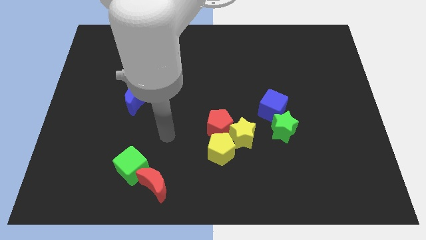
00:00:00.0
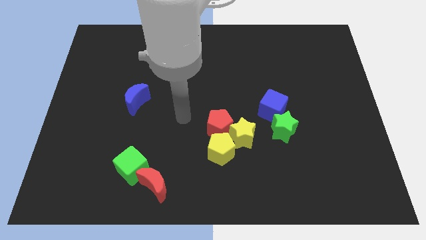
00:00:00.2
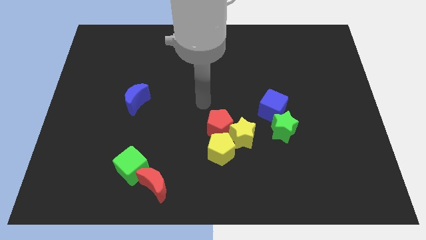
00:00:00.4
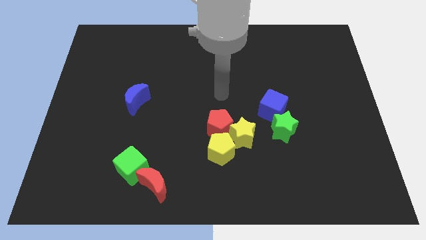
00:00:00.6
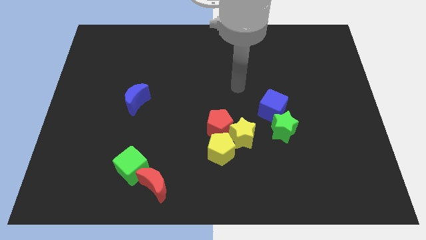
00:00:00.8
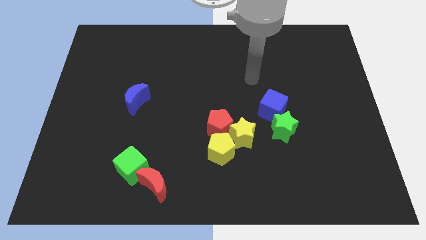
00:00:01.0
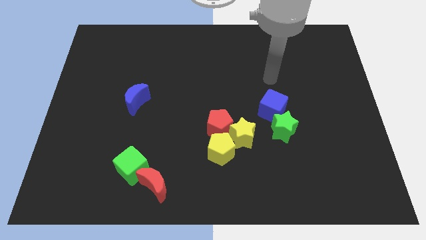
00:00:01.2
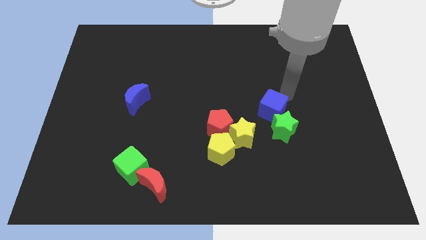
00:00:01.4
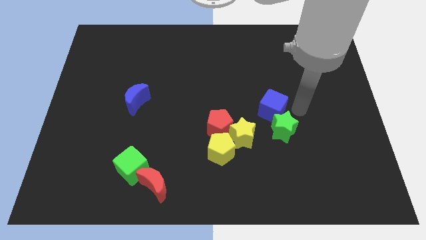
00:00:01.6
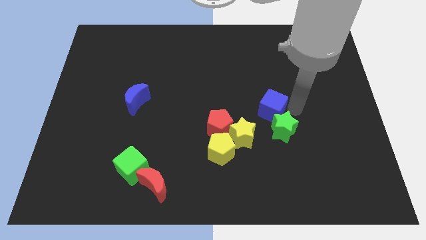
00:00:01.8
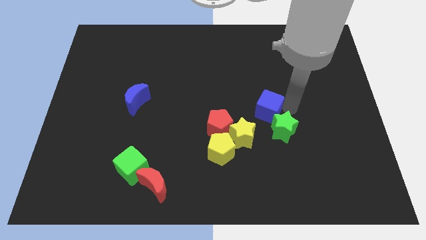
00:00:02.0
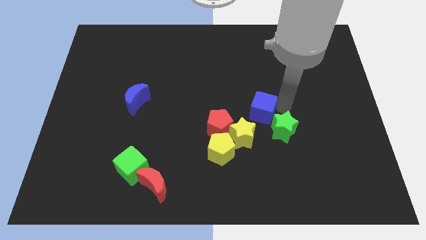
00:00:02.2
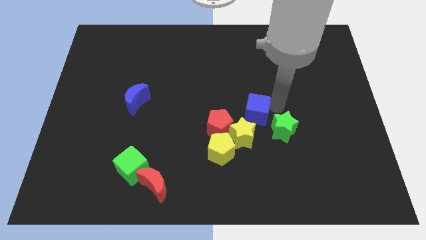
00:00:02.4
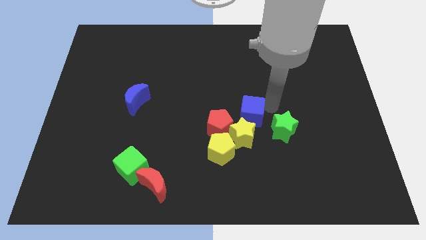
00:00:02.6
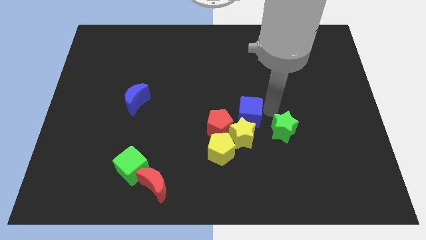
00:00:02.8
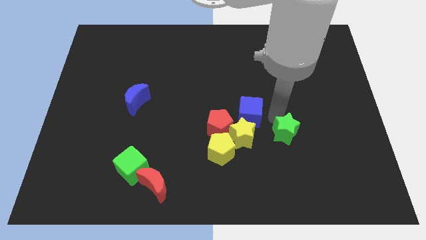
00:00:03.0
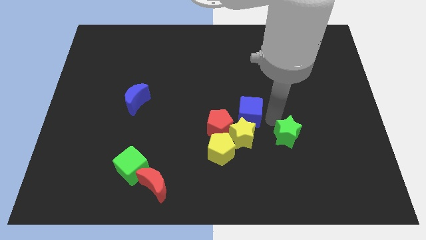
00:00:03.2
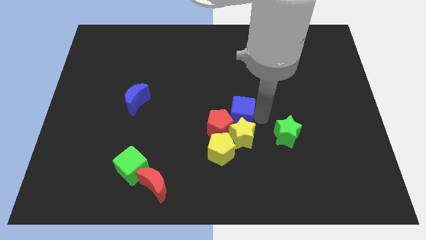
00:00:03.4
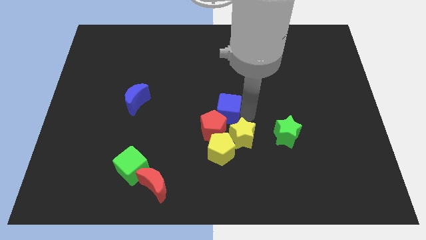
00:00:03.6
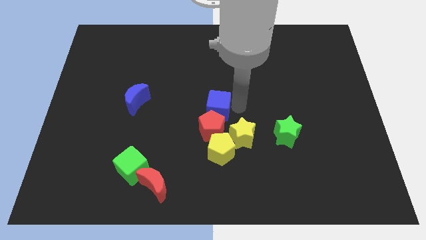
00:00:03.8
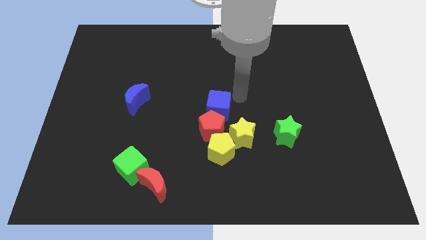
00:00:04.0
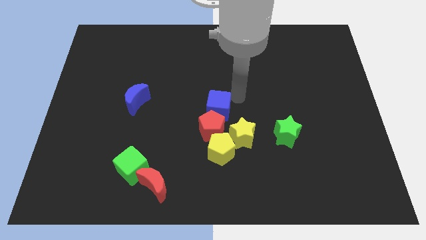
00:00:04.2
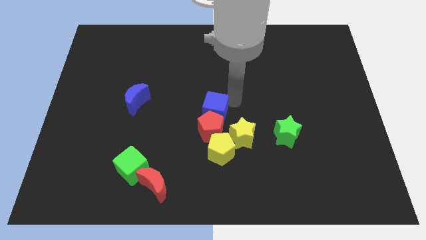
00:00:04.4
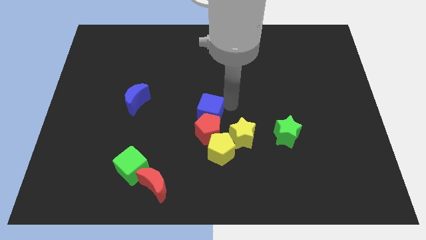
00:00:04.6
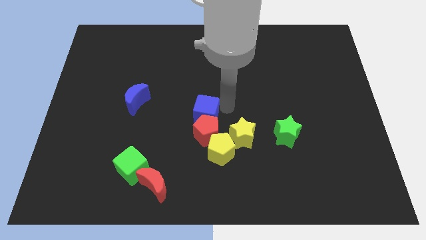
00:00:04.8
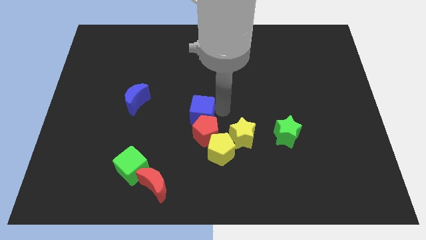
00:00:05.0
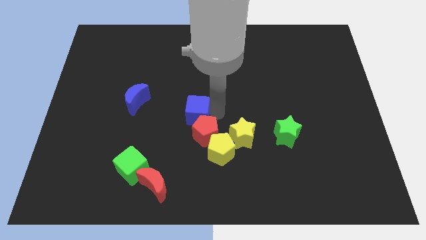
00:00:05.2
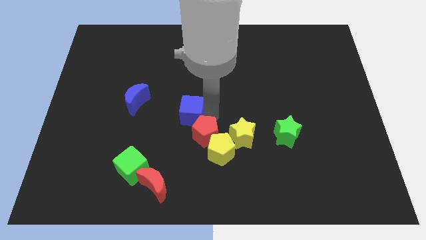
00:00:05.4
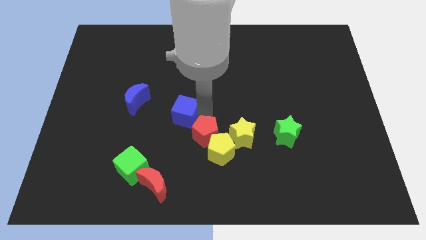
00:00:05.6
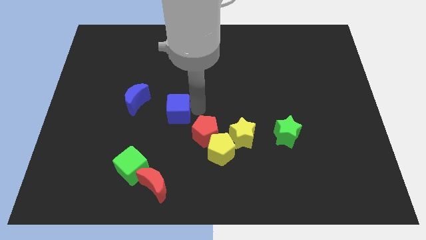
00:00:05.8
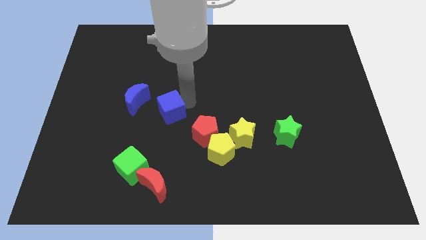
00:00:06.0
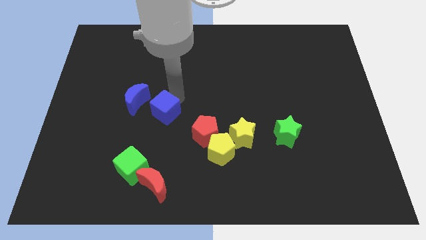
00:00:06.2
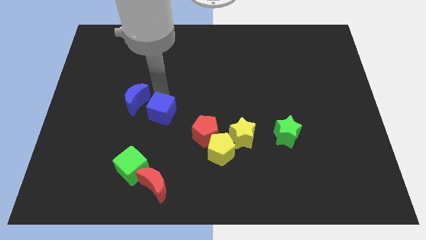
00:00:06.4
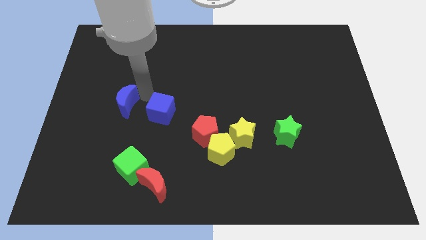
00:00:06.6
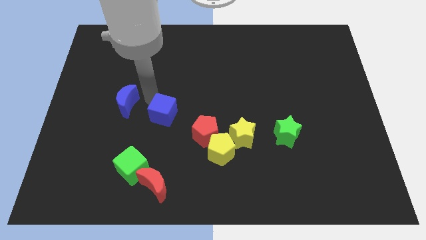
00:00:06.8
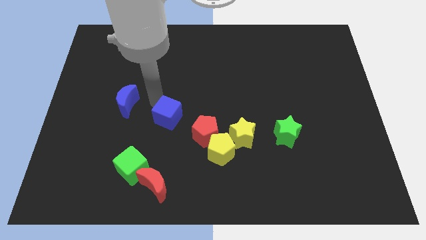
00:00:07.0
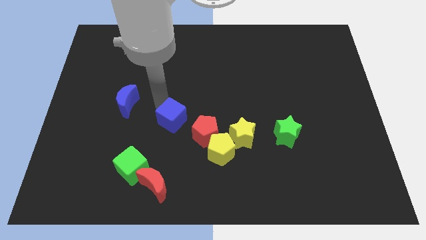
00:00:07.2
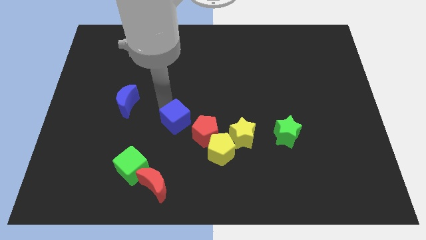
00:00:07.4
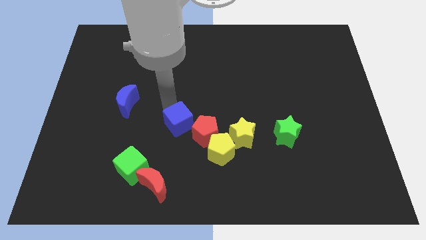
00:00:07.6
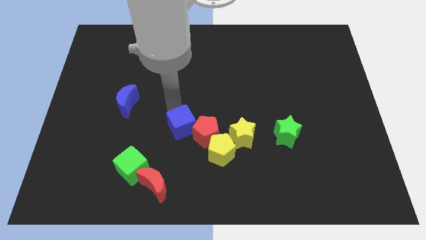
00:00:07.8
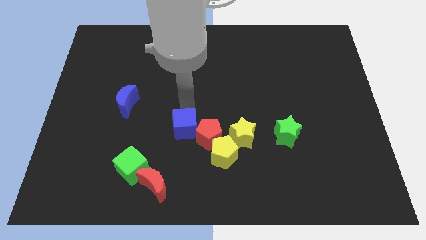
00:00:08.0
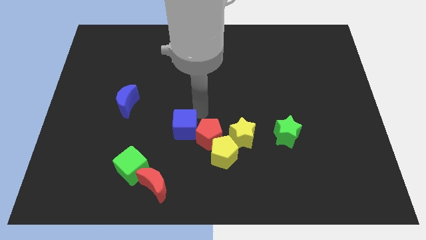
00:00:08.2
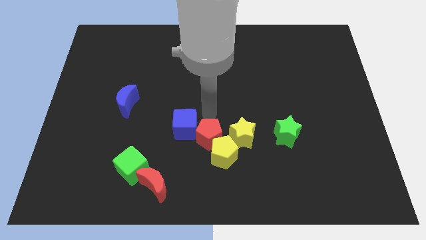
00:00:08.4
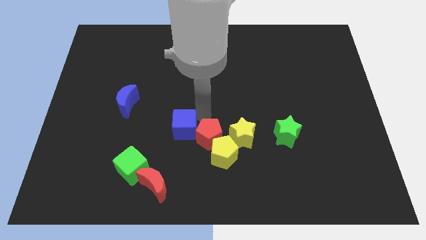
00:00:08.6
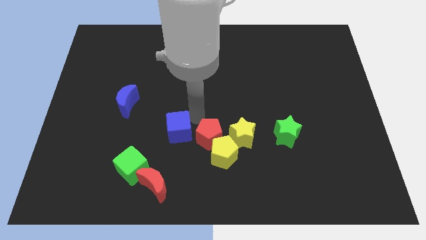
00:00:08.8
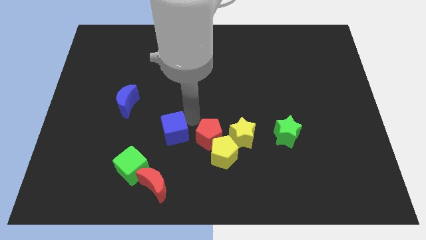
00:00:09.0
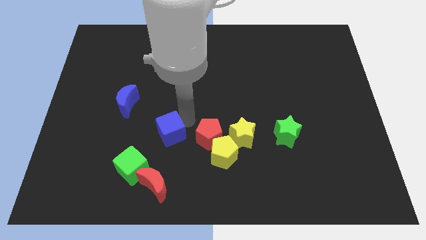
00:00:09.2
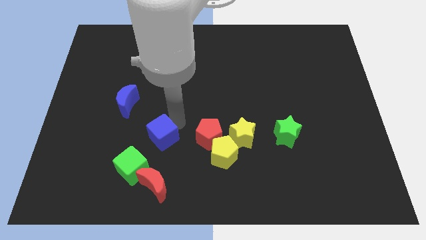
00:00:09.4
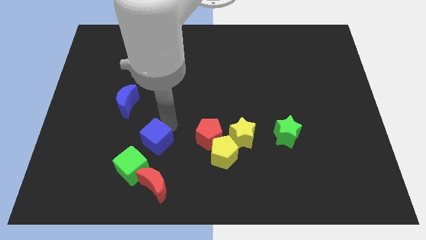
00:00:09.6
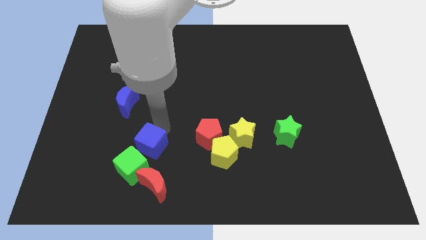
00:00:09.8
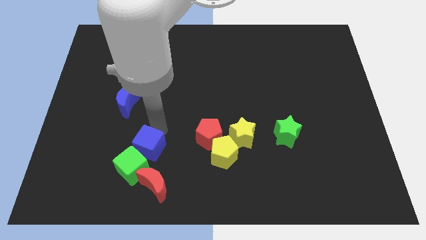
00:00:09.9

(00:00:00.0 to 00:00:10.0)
slide the blue cube close to the green cube

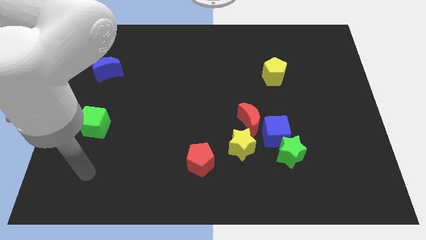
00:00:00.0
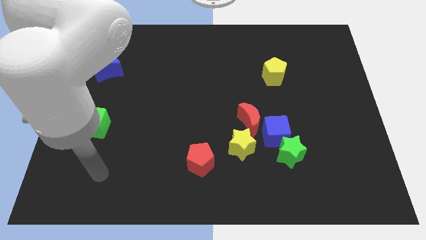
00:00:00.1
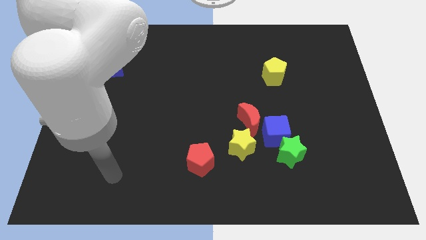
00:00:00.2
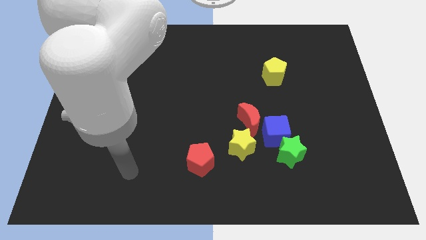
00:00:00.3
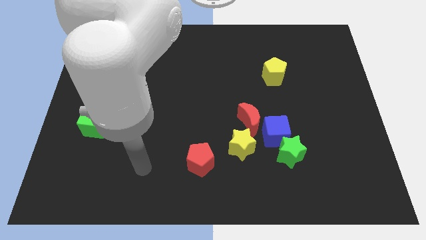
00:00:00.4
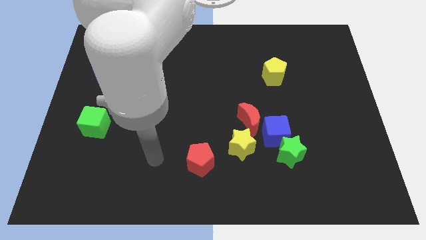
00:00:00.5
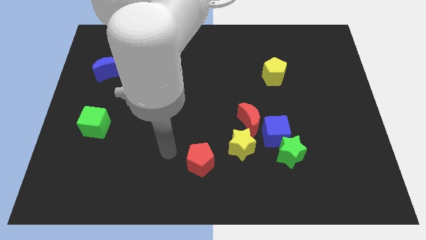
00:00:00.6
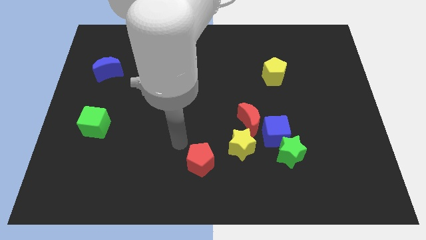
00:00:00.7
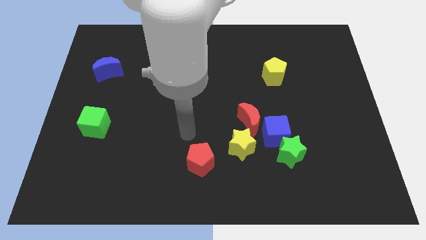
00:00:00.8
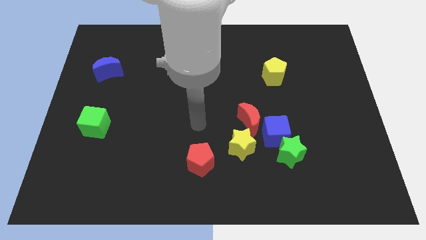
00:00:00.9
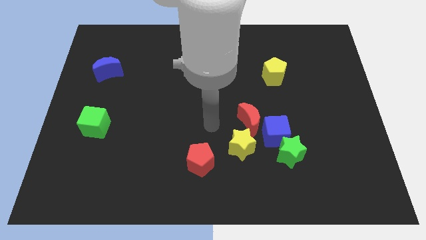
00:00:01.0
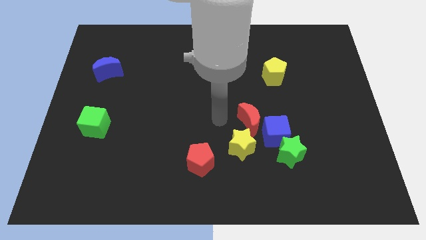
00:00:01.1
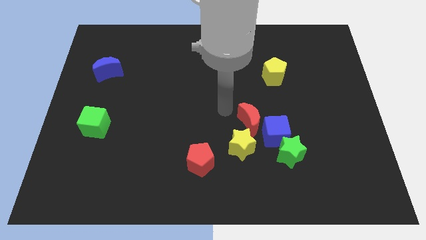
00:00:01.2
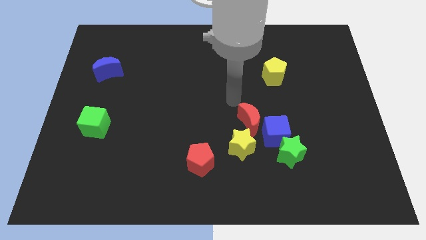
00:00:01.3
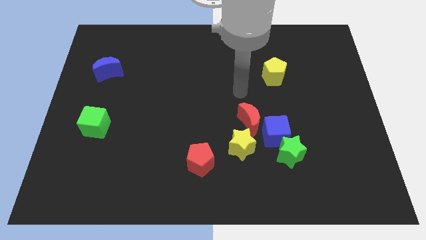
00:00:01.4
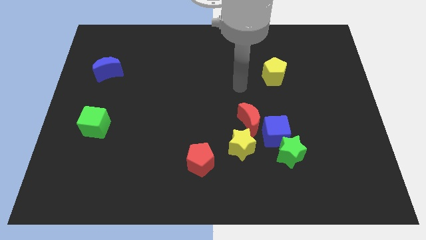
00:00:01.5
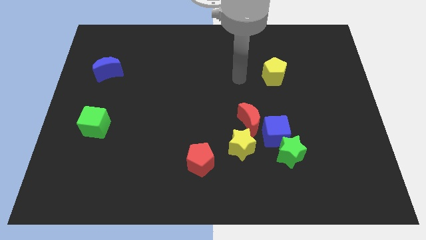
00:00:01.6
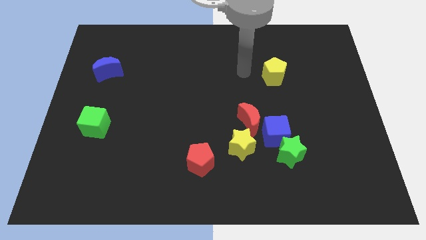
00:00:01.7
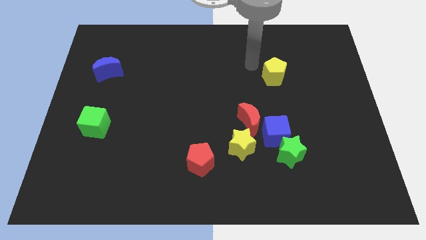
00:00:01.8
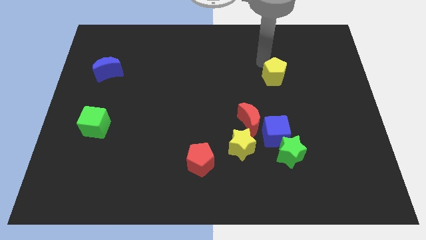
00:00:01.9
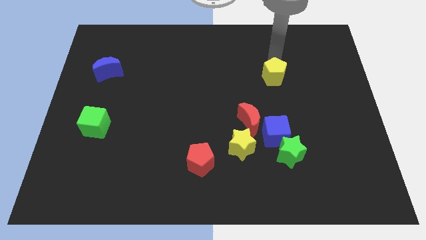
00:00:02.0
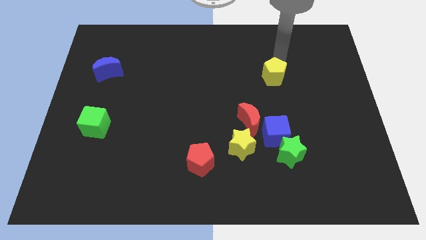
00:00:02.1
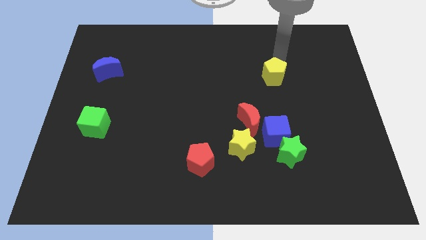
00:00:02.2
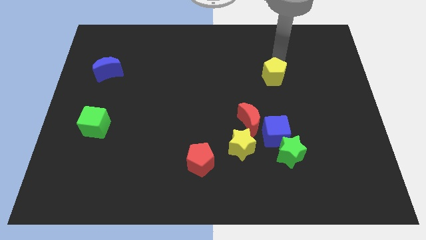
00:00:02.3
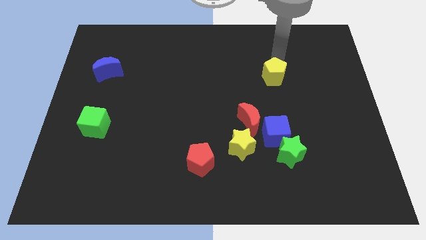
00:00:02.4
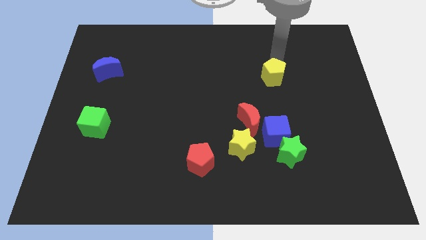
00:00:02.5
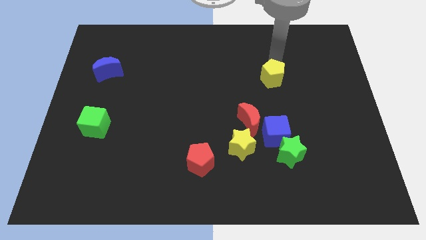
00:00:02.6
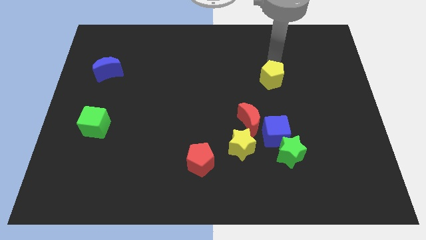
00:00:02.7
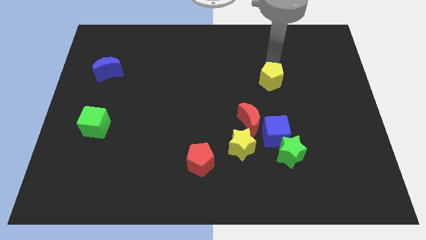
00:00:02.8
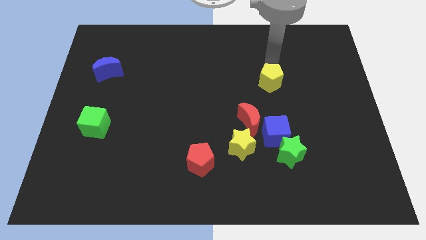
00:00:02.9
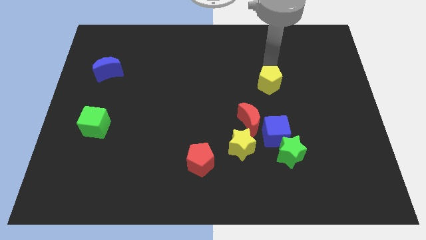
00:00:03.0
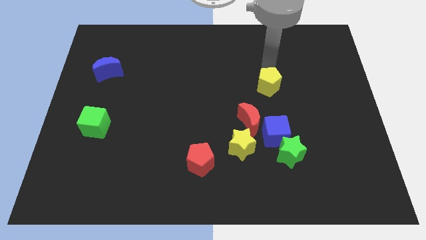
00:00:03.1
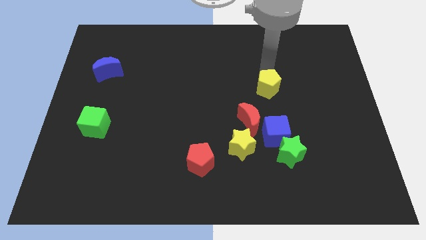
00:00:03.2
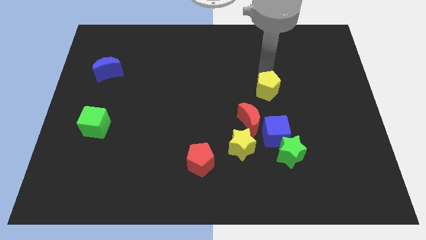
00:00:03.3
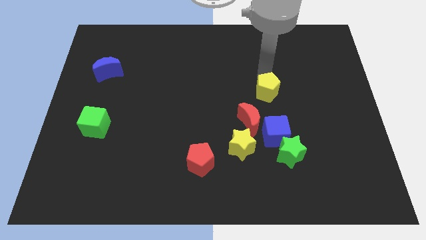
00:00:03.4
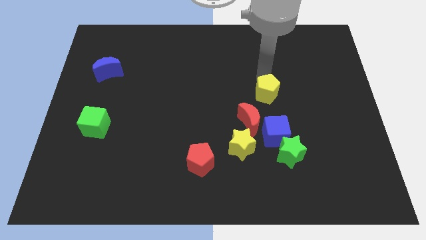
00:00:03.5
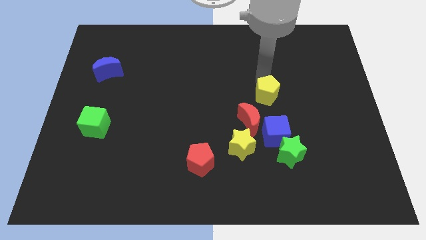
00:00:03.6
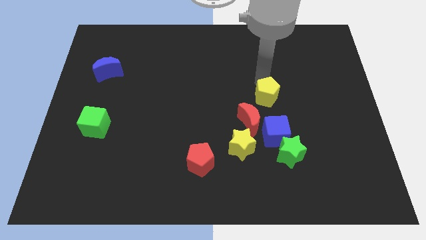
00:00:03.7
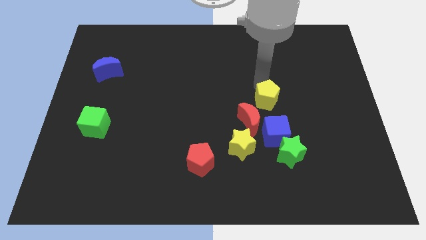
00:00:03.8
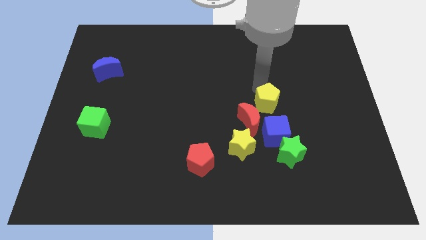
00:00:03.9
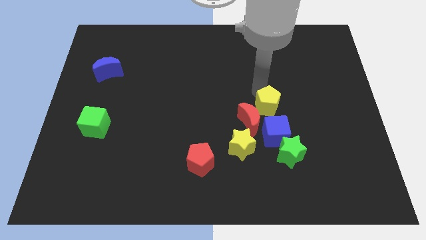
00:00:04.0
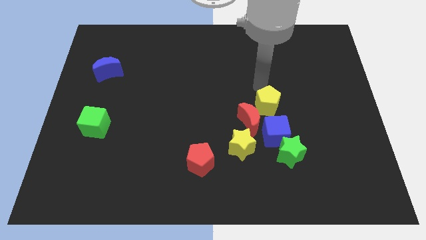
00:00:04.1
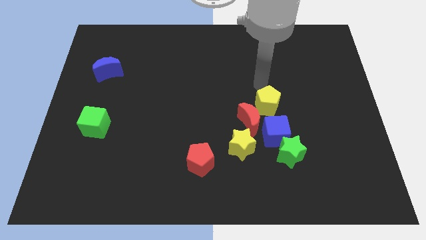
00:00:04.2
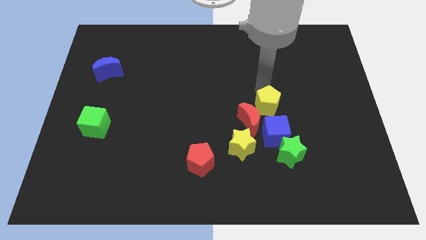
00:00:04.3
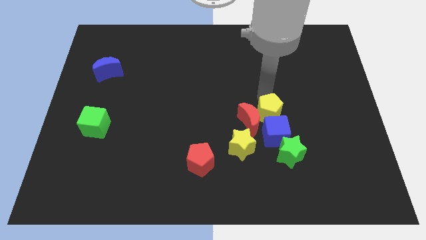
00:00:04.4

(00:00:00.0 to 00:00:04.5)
move the yellow pentagon next to the blue cube
